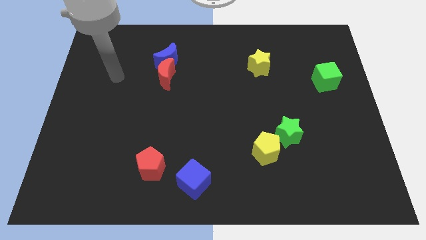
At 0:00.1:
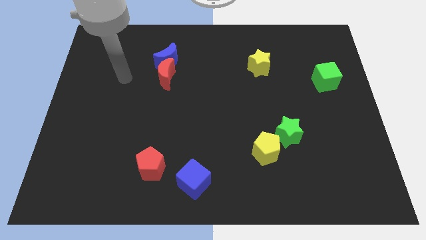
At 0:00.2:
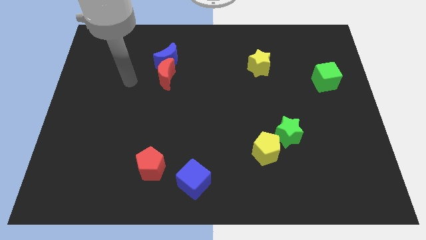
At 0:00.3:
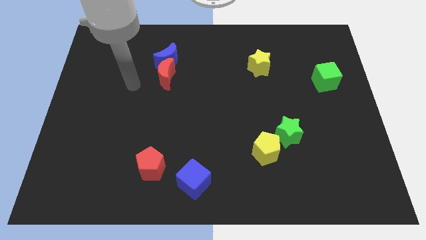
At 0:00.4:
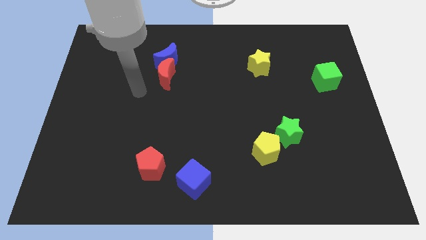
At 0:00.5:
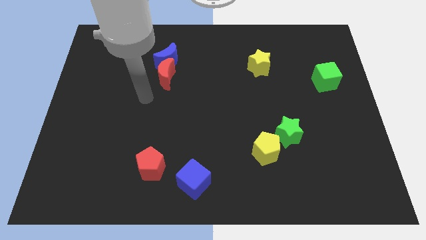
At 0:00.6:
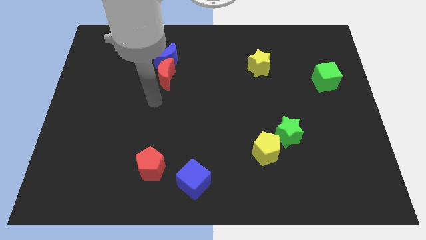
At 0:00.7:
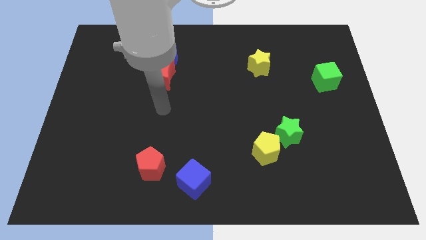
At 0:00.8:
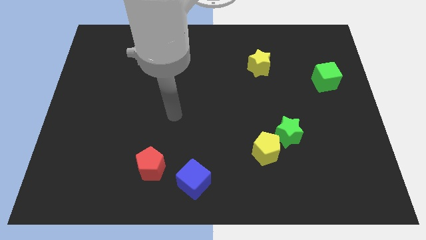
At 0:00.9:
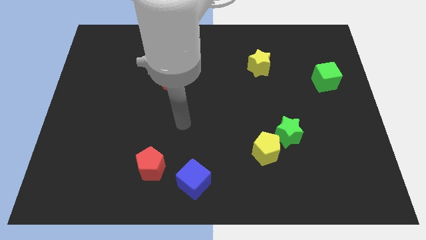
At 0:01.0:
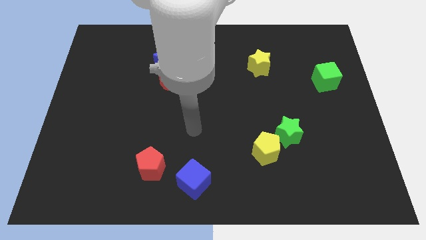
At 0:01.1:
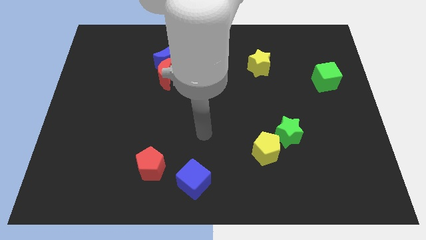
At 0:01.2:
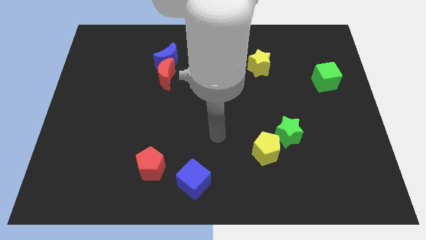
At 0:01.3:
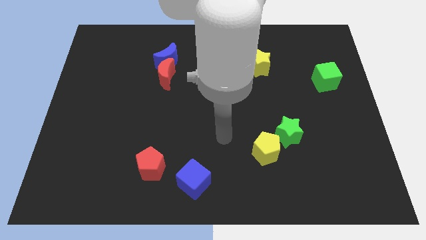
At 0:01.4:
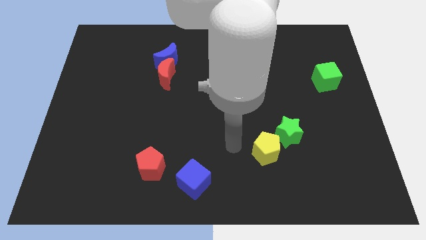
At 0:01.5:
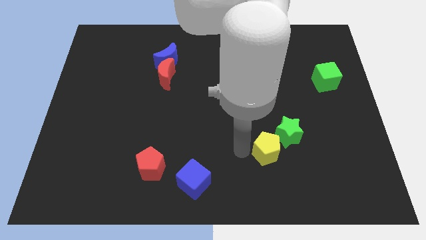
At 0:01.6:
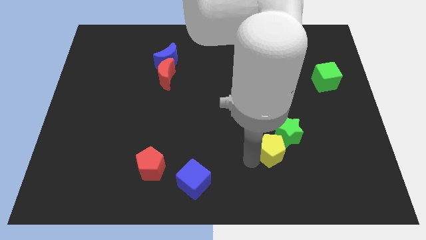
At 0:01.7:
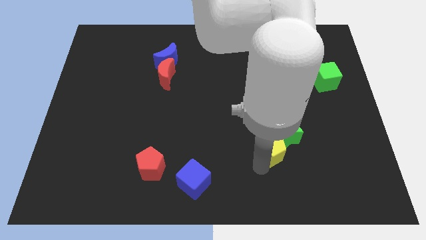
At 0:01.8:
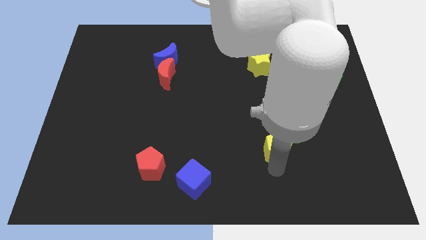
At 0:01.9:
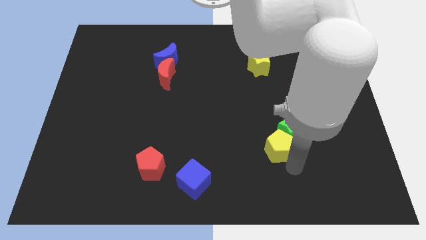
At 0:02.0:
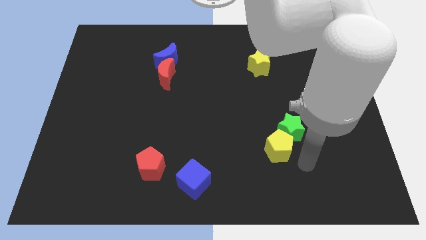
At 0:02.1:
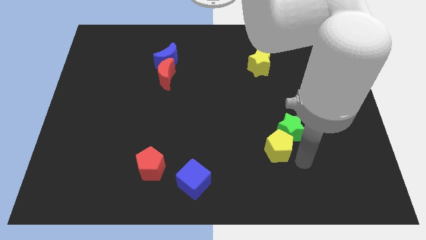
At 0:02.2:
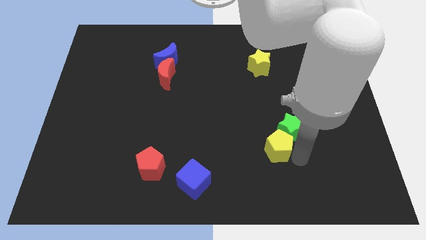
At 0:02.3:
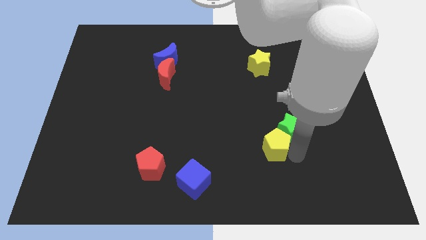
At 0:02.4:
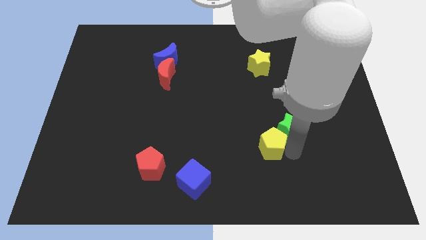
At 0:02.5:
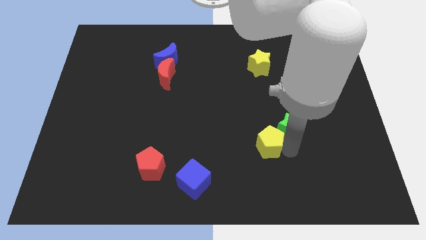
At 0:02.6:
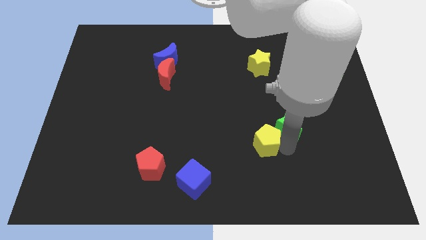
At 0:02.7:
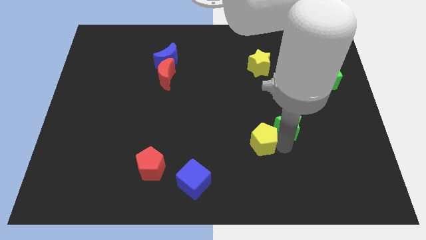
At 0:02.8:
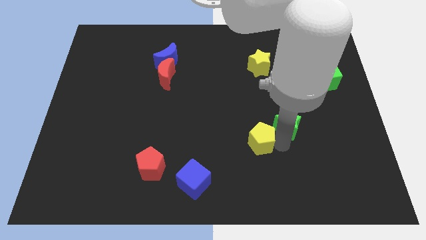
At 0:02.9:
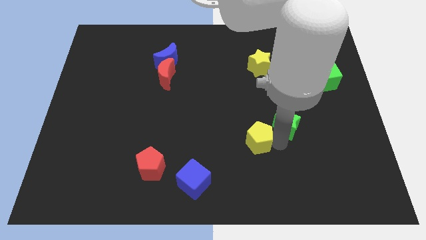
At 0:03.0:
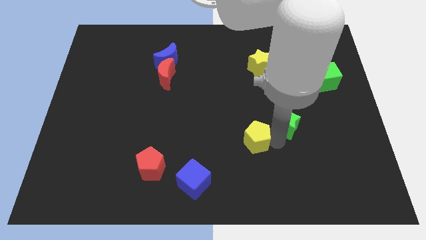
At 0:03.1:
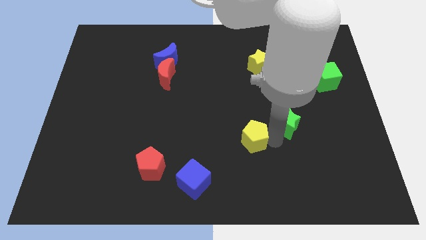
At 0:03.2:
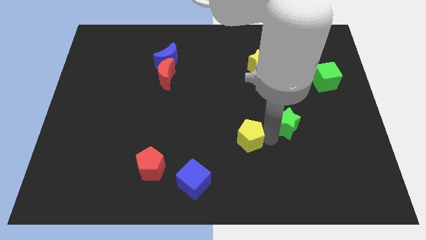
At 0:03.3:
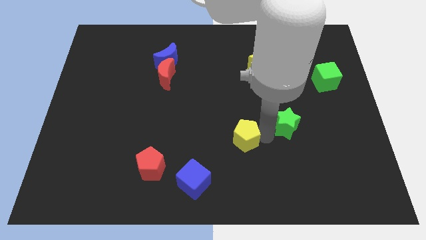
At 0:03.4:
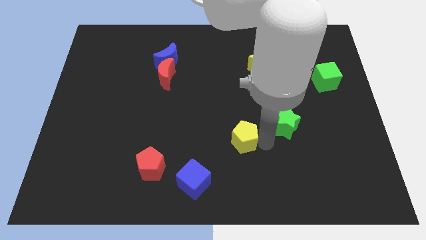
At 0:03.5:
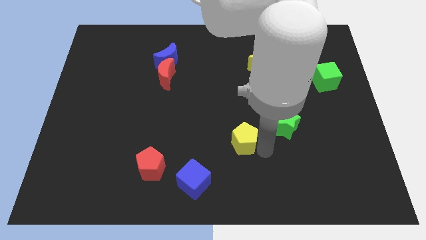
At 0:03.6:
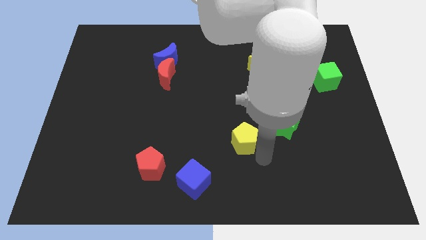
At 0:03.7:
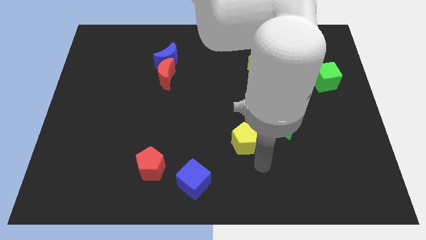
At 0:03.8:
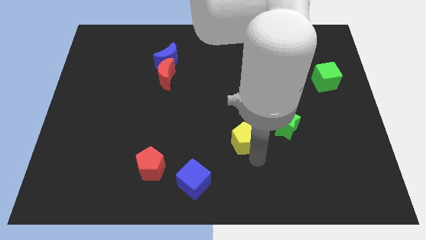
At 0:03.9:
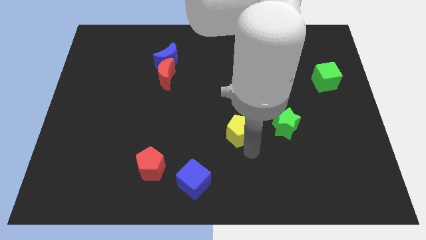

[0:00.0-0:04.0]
slide the yellow pentagon a bit upwards and left

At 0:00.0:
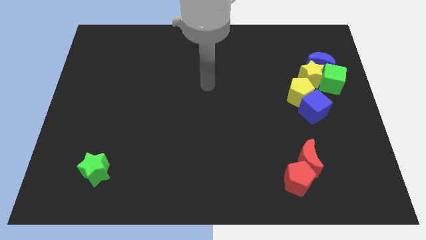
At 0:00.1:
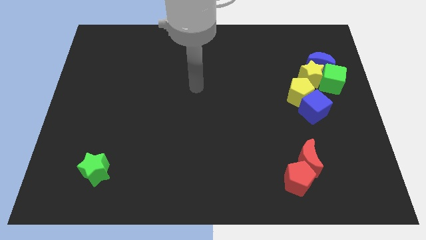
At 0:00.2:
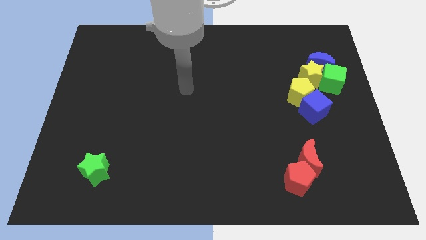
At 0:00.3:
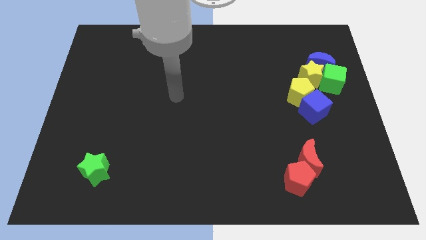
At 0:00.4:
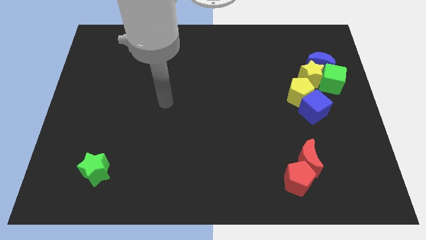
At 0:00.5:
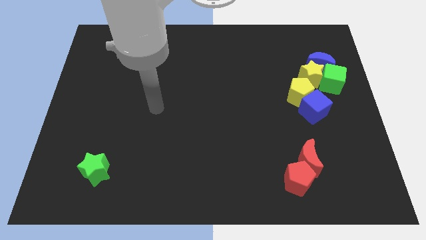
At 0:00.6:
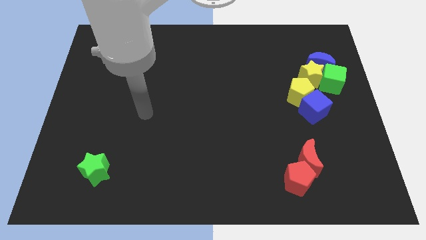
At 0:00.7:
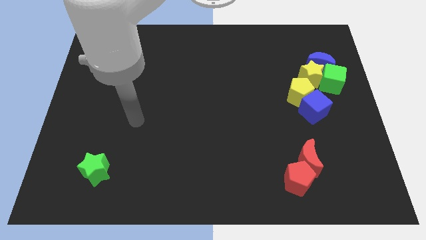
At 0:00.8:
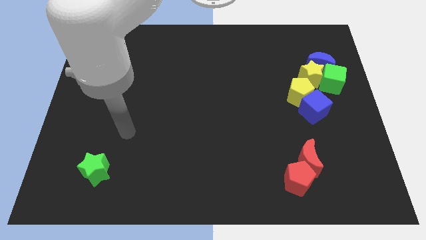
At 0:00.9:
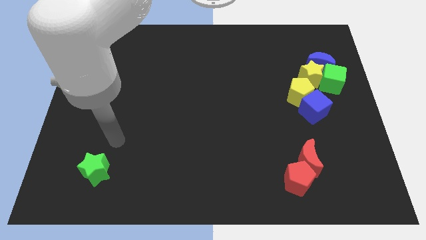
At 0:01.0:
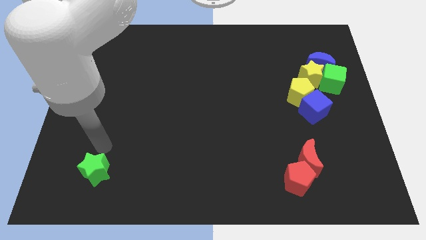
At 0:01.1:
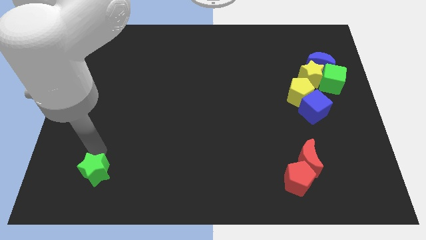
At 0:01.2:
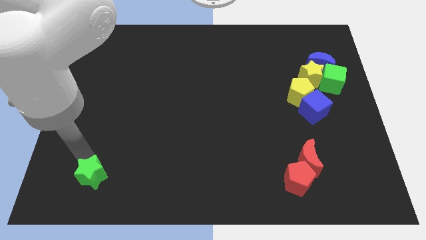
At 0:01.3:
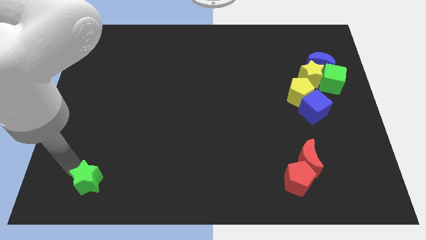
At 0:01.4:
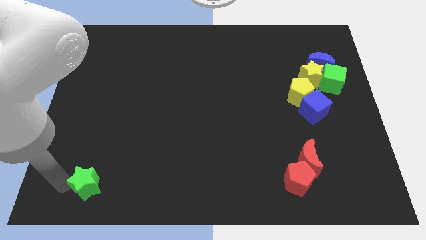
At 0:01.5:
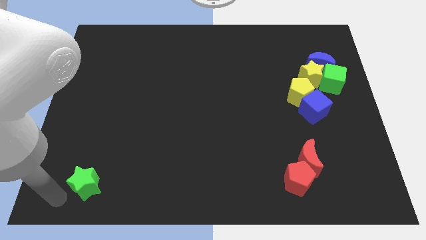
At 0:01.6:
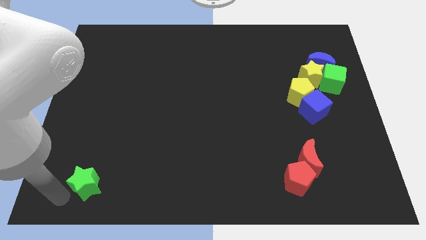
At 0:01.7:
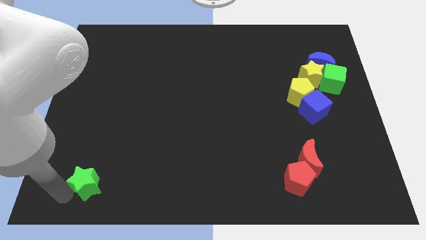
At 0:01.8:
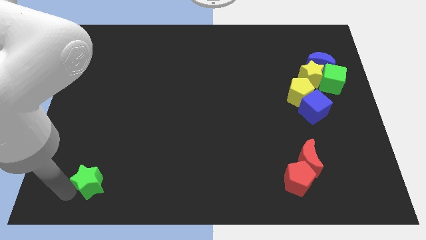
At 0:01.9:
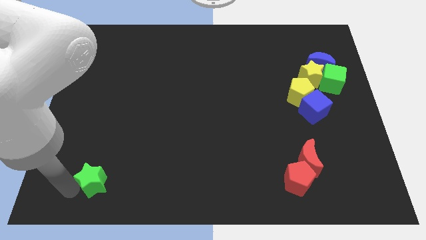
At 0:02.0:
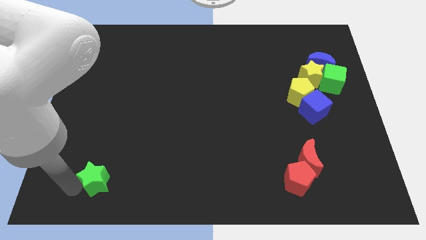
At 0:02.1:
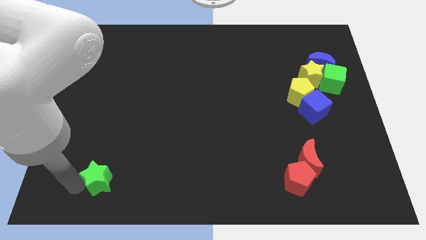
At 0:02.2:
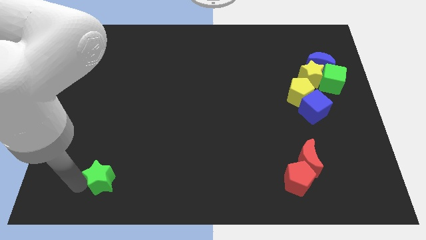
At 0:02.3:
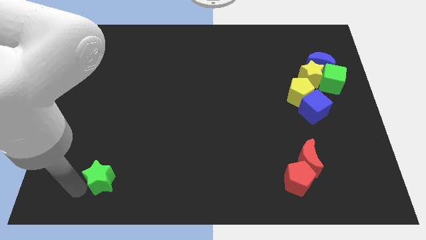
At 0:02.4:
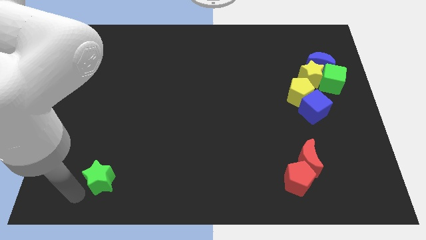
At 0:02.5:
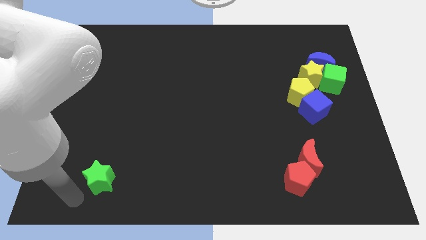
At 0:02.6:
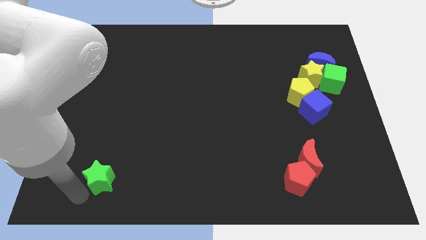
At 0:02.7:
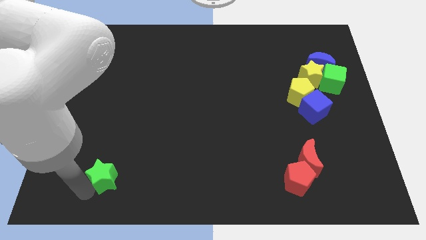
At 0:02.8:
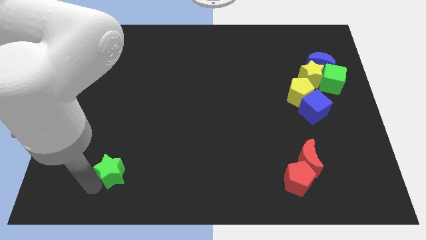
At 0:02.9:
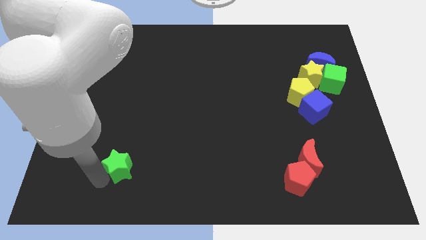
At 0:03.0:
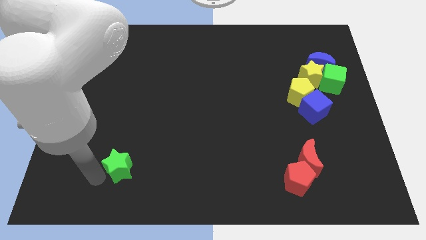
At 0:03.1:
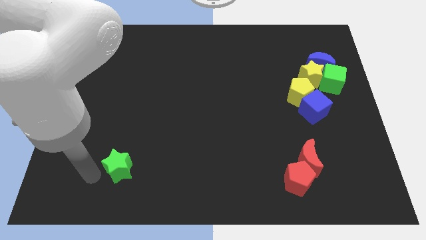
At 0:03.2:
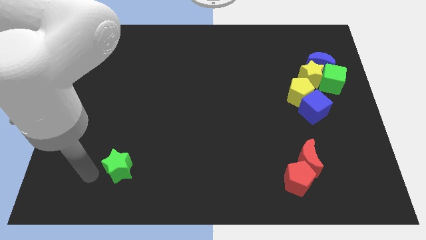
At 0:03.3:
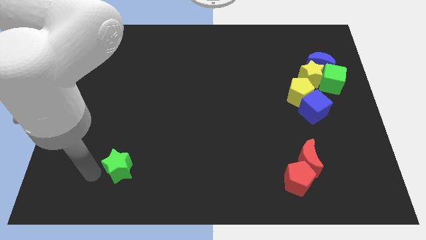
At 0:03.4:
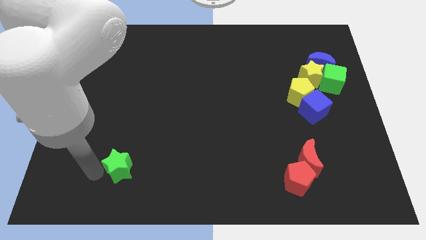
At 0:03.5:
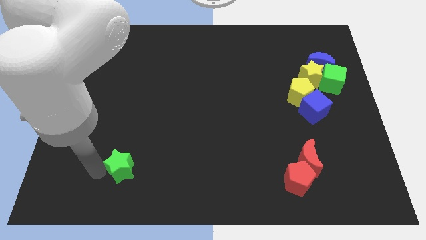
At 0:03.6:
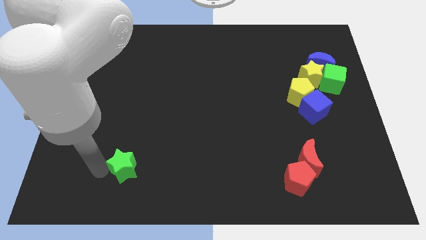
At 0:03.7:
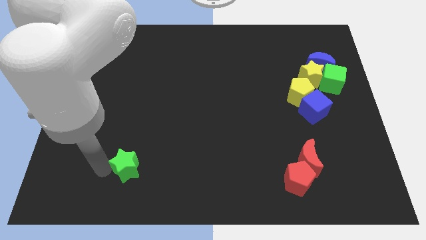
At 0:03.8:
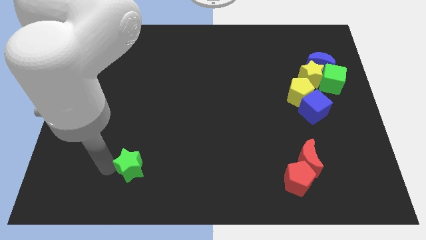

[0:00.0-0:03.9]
move the green star a bit to the right

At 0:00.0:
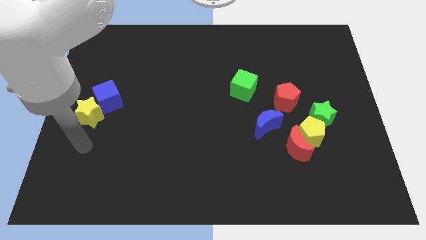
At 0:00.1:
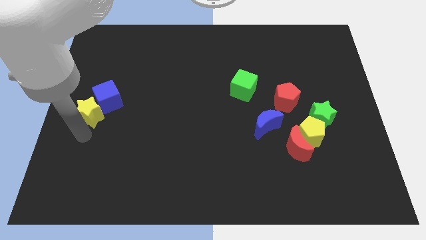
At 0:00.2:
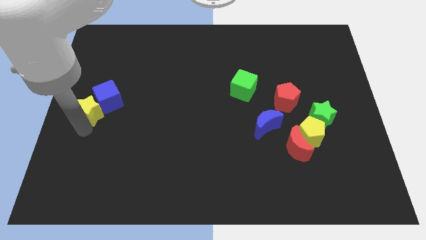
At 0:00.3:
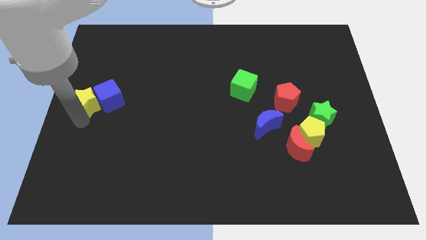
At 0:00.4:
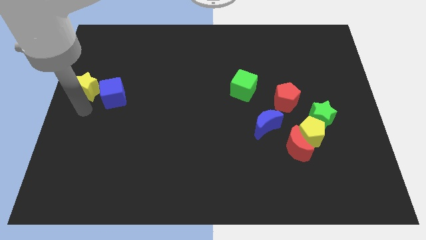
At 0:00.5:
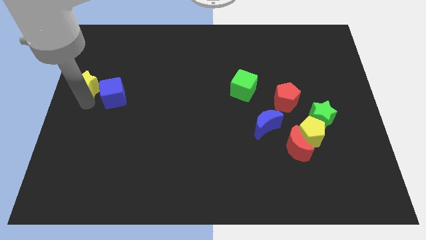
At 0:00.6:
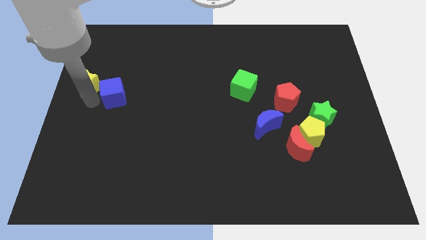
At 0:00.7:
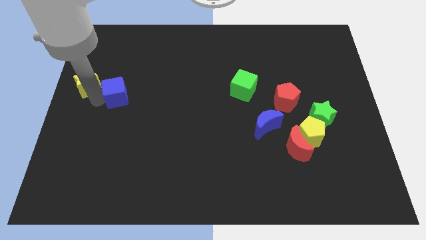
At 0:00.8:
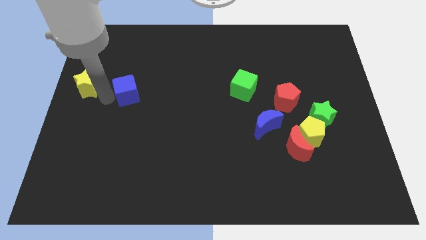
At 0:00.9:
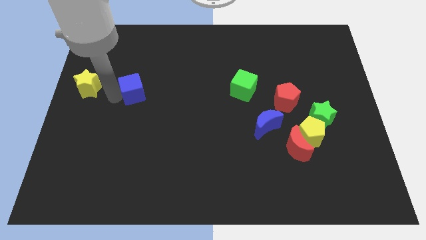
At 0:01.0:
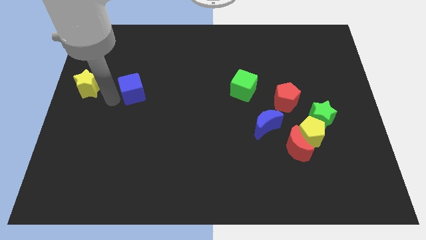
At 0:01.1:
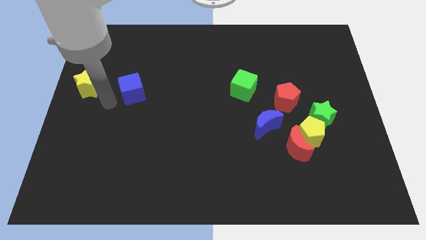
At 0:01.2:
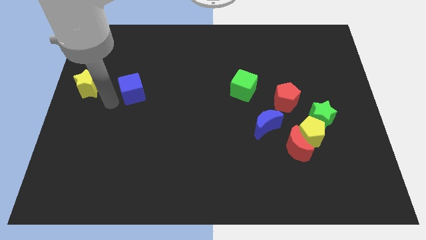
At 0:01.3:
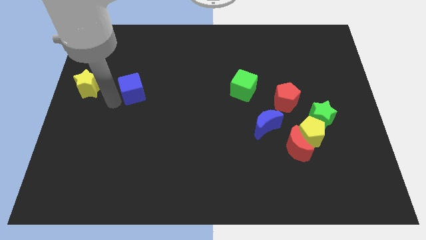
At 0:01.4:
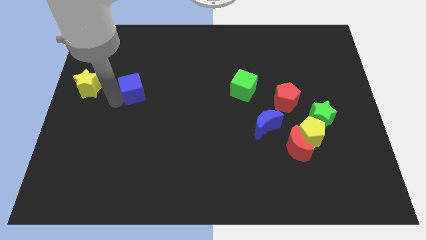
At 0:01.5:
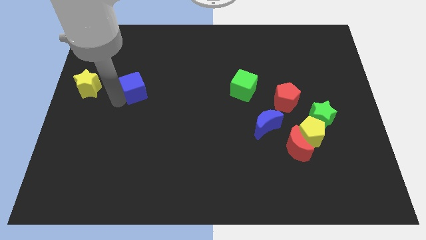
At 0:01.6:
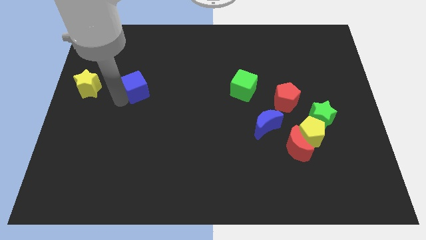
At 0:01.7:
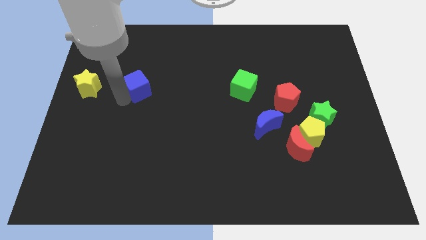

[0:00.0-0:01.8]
move the blue cube a bit up and right diagonally
